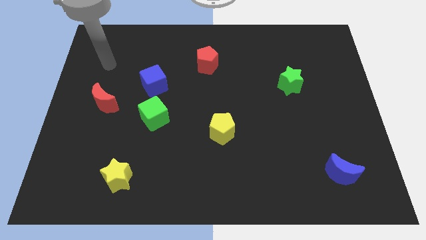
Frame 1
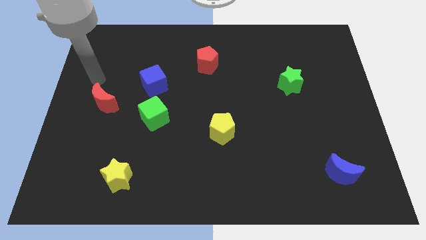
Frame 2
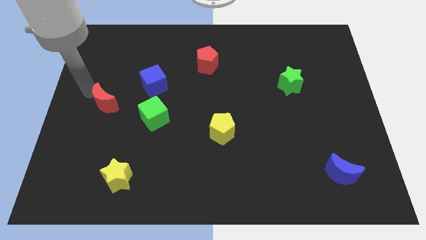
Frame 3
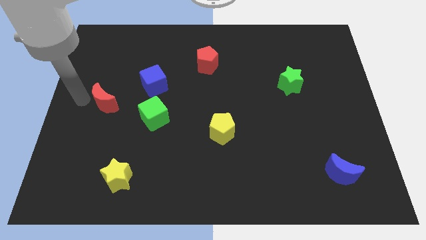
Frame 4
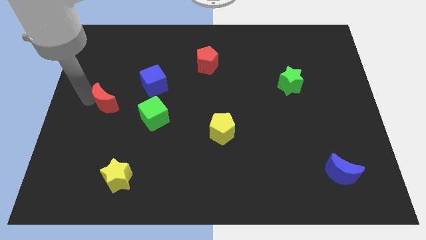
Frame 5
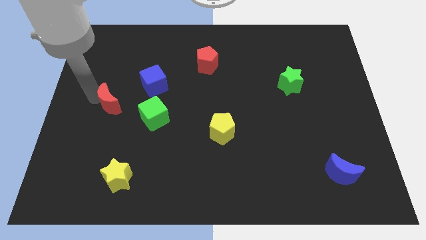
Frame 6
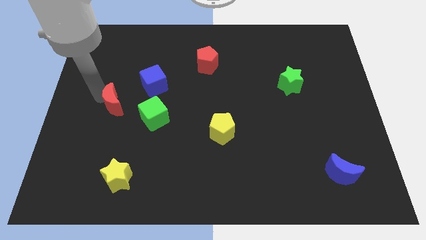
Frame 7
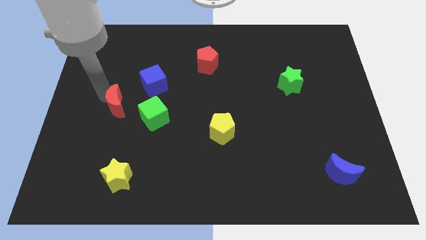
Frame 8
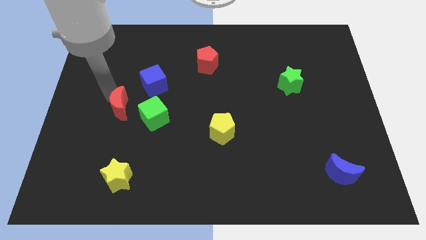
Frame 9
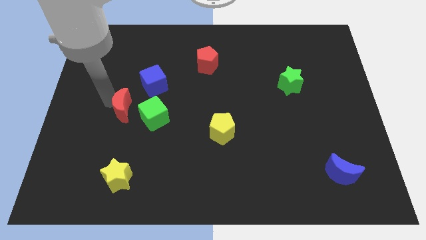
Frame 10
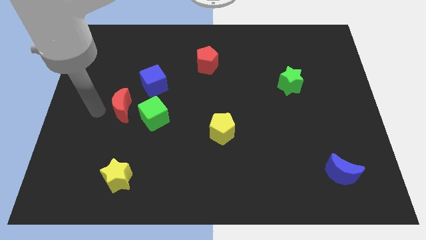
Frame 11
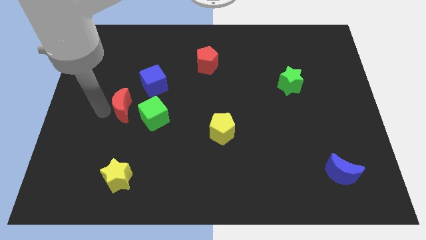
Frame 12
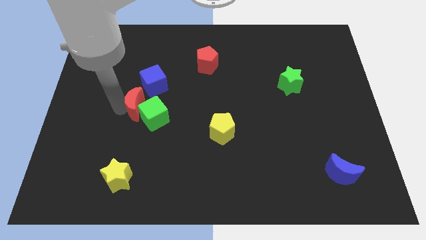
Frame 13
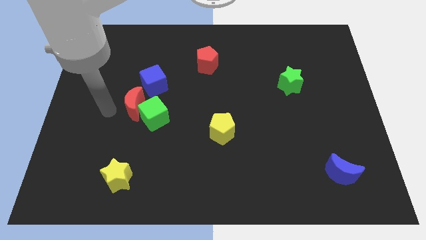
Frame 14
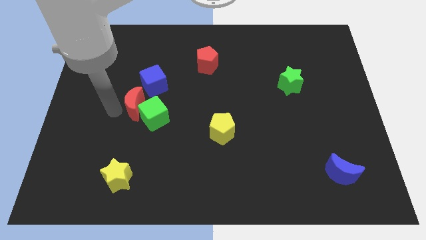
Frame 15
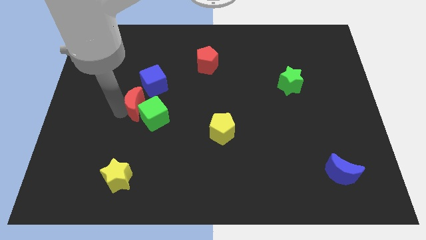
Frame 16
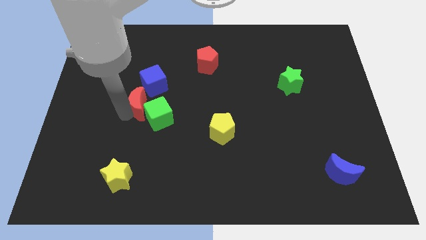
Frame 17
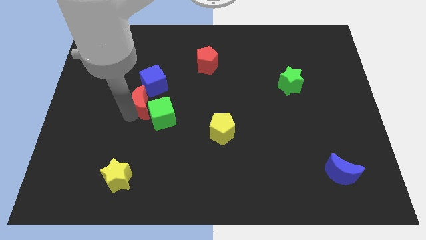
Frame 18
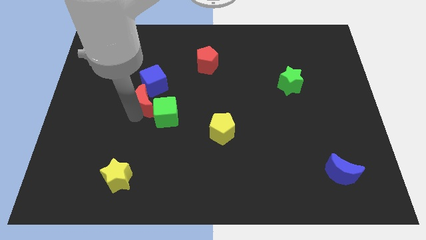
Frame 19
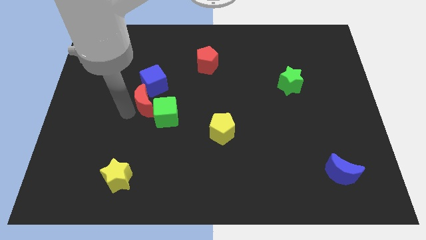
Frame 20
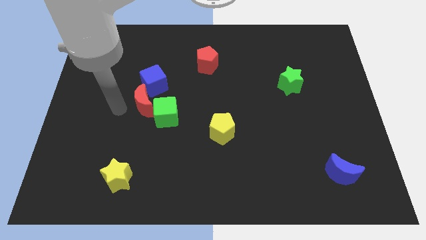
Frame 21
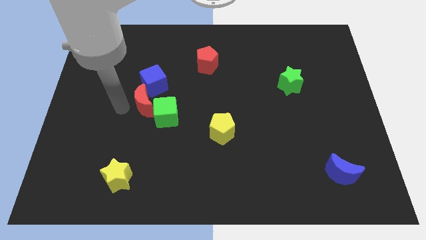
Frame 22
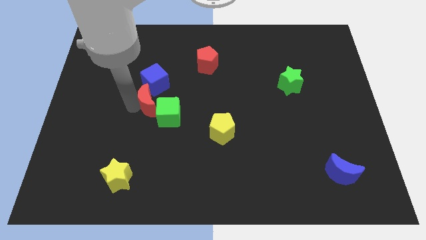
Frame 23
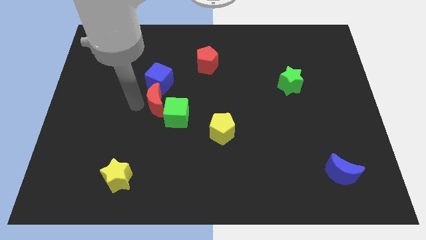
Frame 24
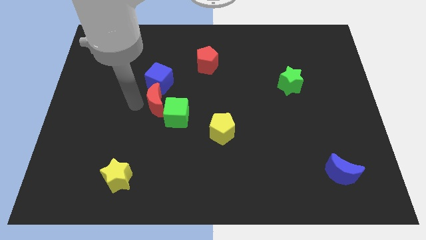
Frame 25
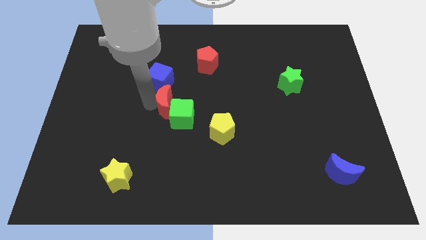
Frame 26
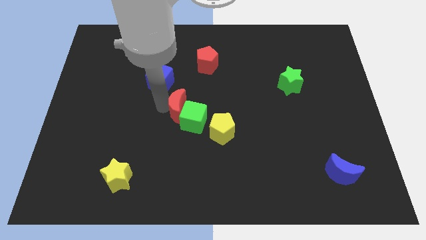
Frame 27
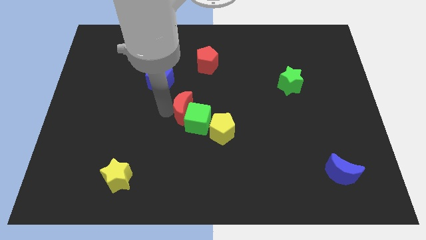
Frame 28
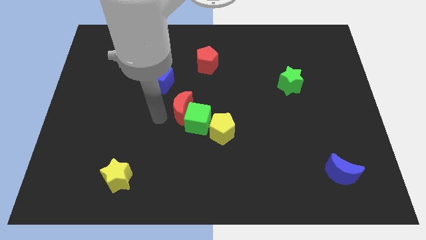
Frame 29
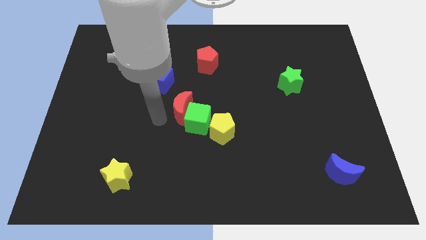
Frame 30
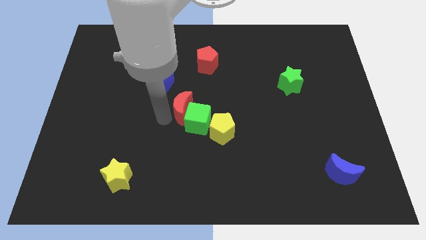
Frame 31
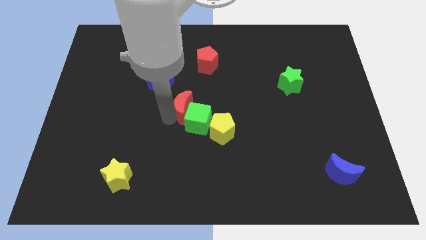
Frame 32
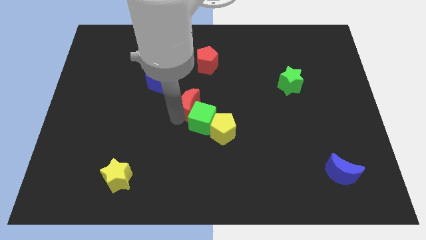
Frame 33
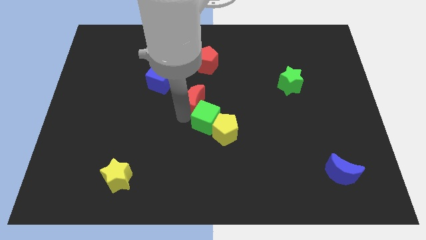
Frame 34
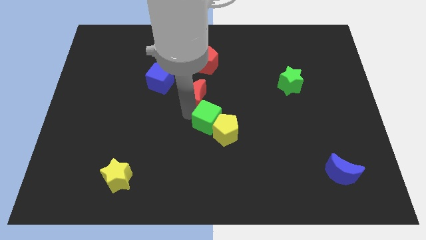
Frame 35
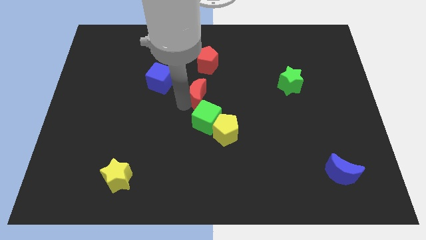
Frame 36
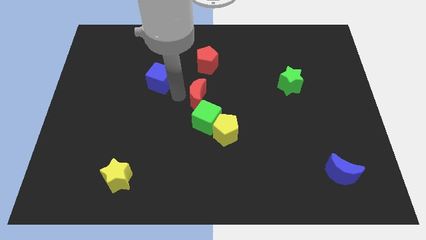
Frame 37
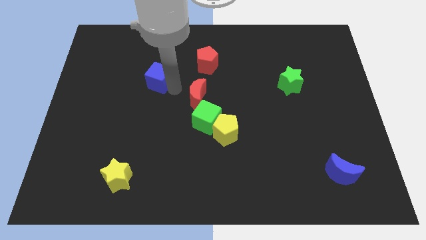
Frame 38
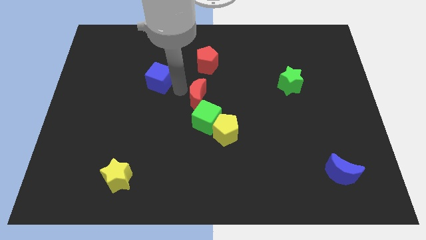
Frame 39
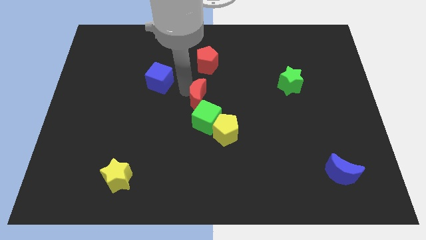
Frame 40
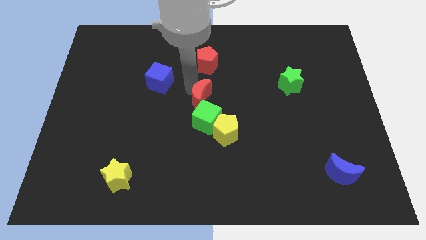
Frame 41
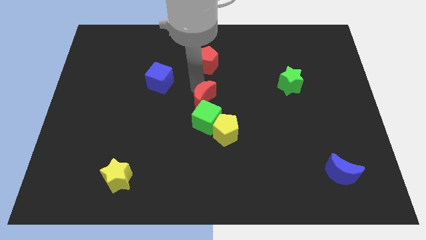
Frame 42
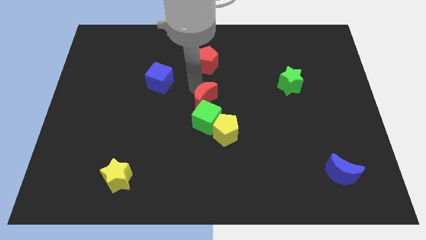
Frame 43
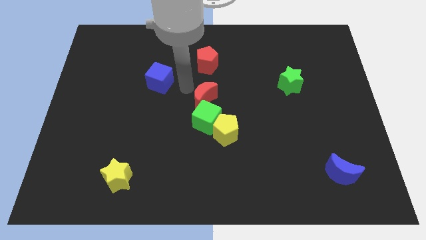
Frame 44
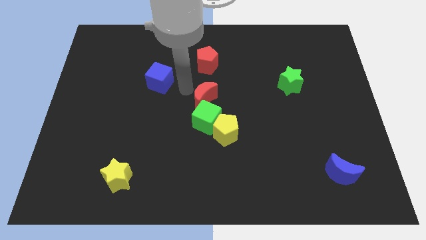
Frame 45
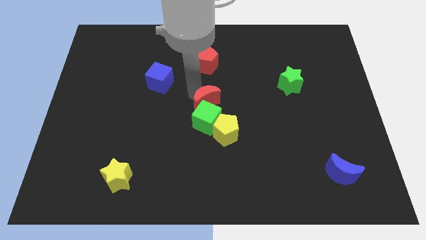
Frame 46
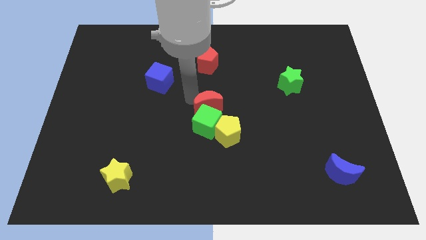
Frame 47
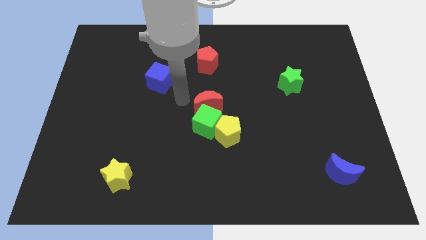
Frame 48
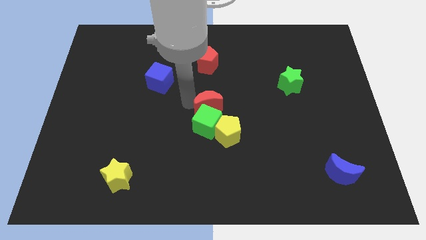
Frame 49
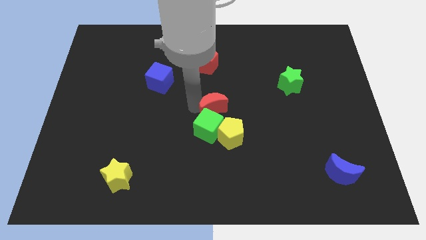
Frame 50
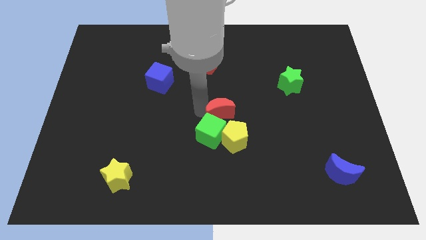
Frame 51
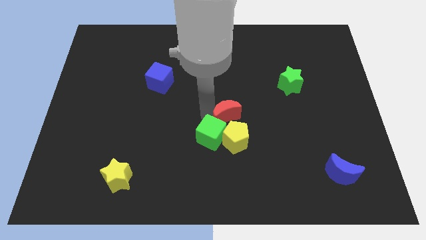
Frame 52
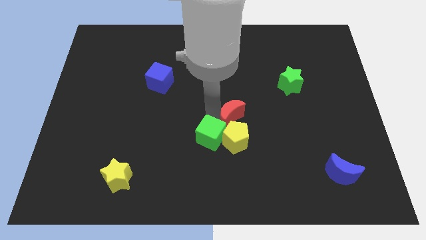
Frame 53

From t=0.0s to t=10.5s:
slide the red moon to the top right of the yellow pentagon

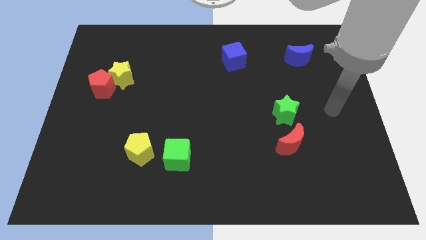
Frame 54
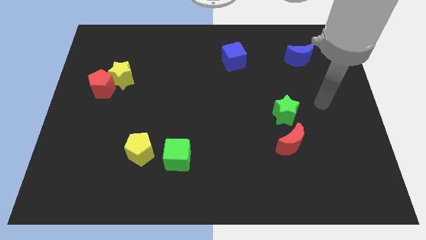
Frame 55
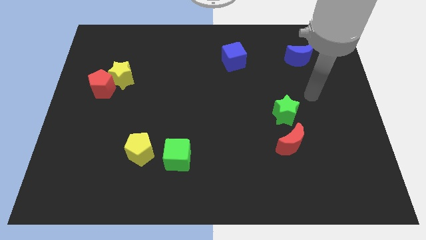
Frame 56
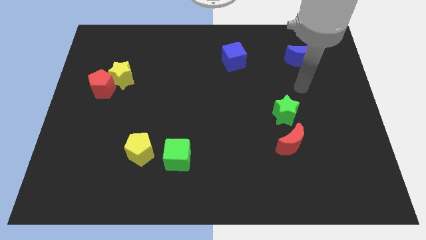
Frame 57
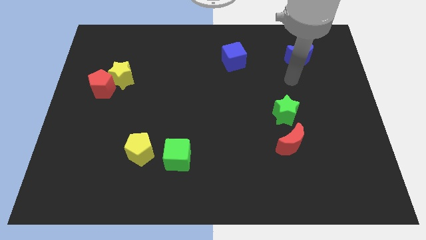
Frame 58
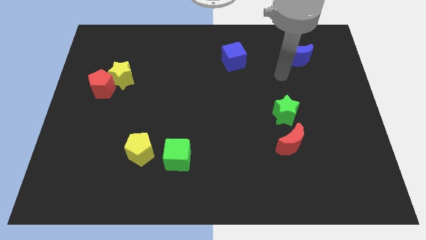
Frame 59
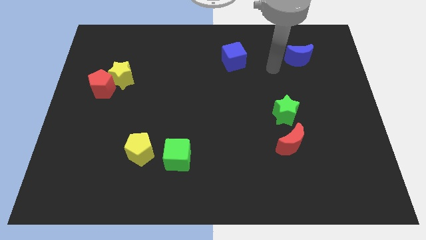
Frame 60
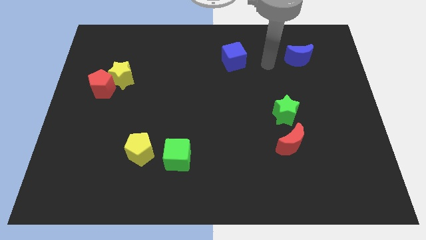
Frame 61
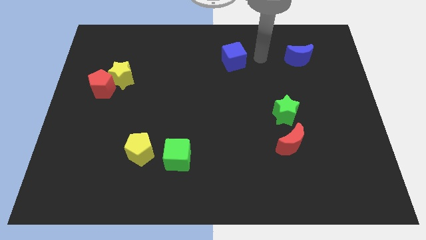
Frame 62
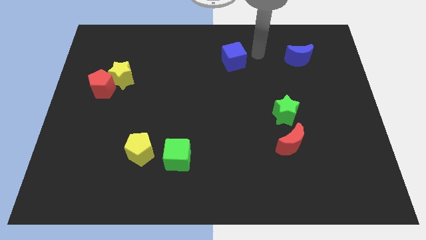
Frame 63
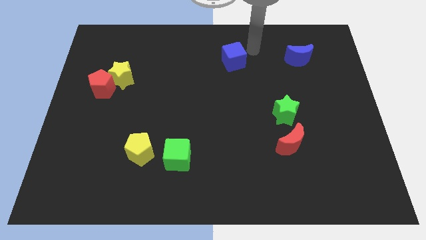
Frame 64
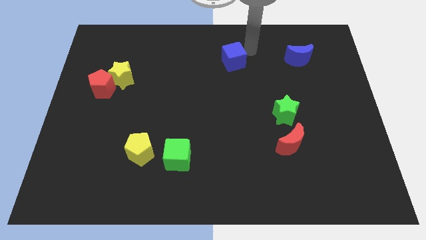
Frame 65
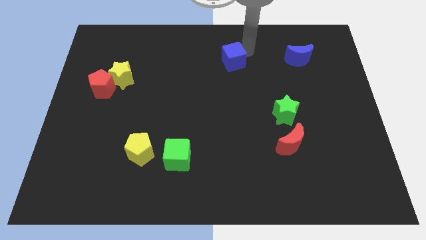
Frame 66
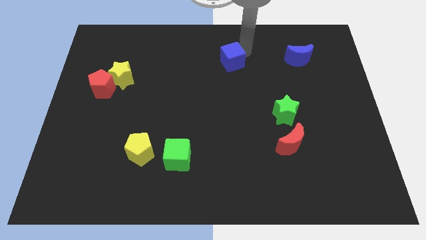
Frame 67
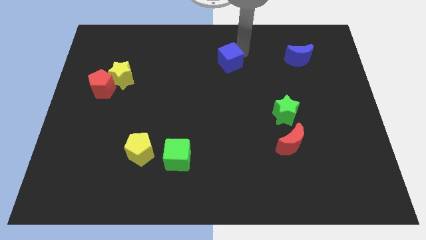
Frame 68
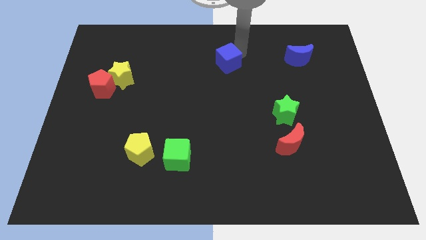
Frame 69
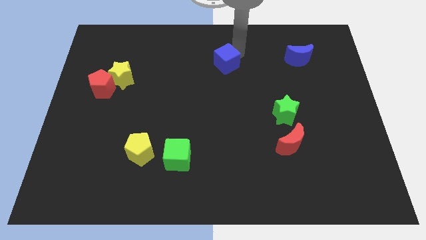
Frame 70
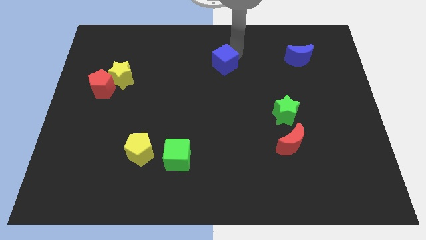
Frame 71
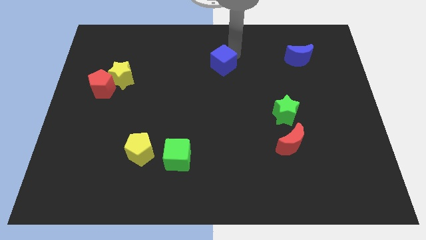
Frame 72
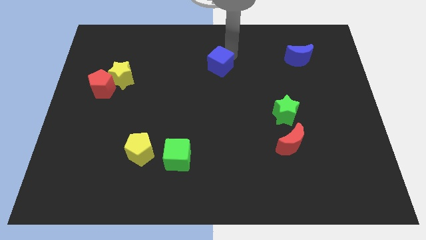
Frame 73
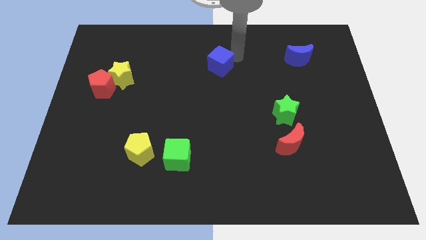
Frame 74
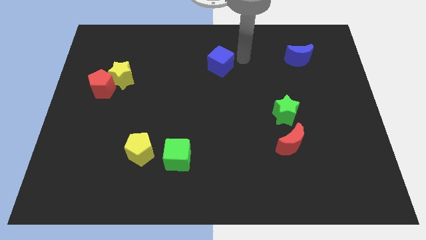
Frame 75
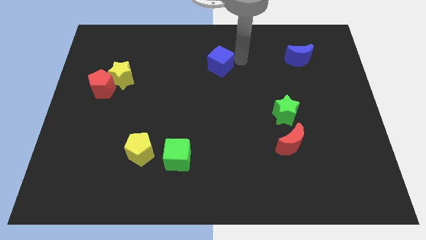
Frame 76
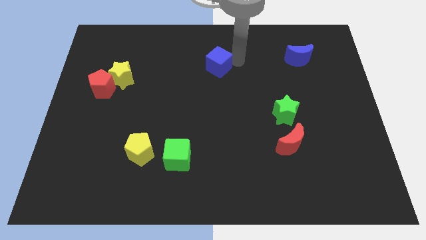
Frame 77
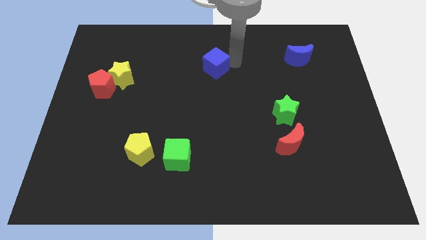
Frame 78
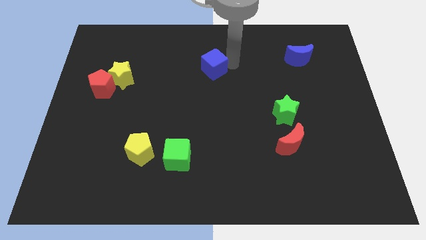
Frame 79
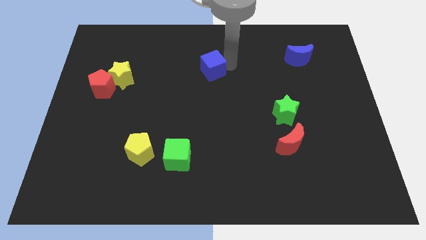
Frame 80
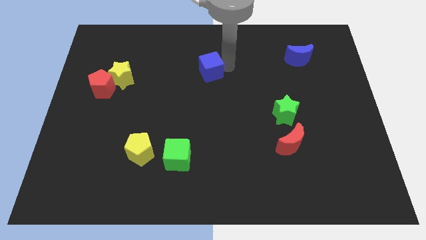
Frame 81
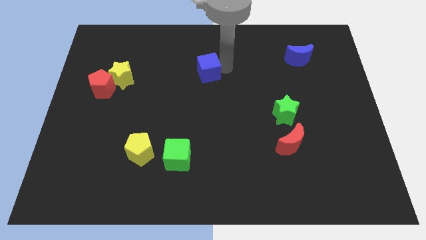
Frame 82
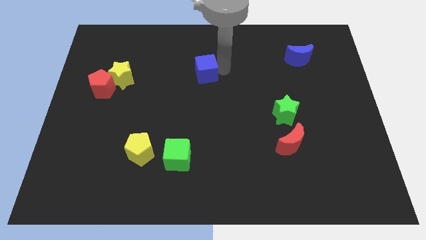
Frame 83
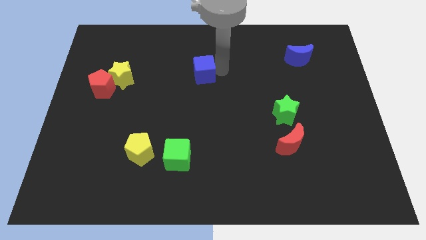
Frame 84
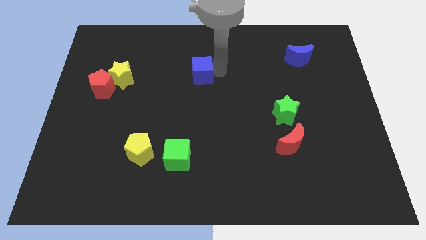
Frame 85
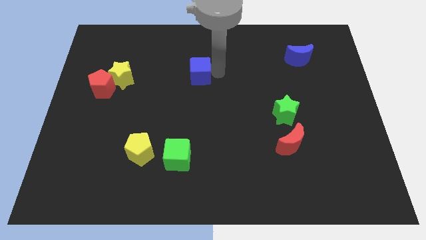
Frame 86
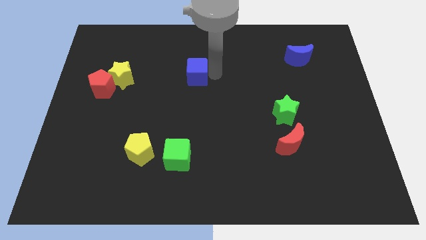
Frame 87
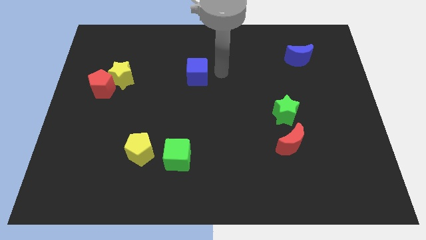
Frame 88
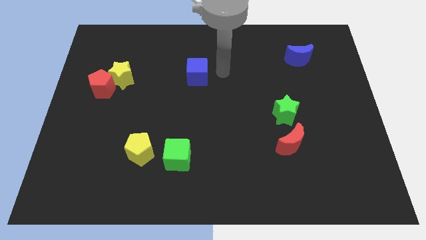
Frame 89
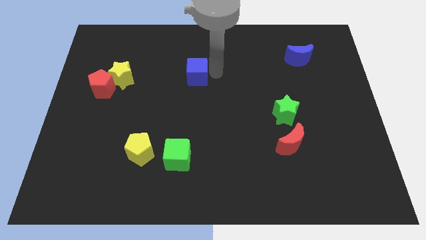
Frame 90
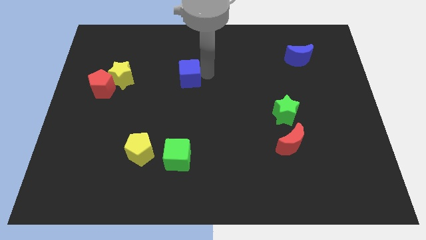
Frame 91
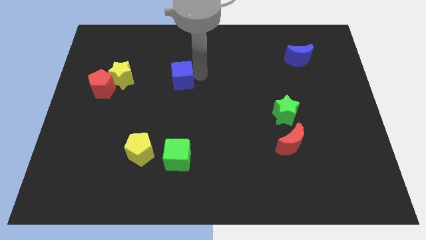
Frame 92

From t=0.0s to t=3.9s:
move the blue cube right of the yellow star
